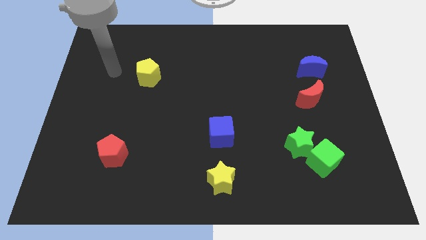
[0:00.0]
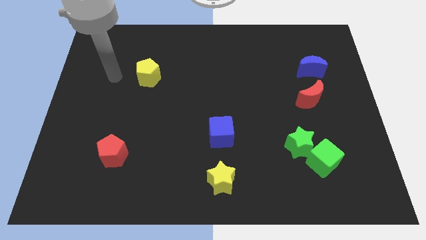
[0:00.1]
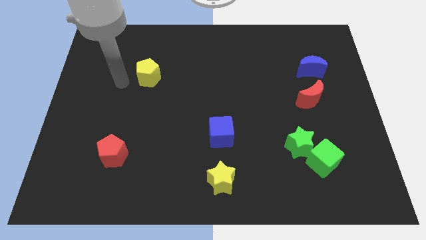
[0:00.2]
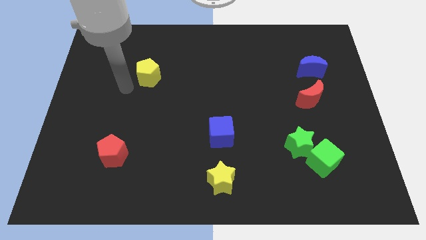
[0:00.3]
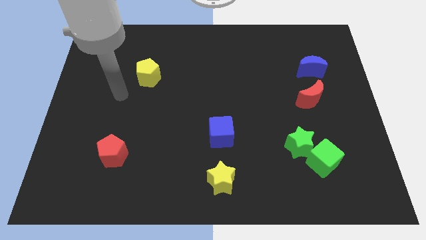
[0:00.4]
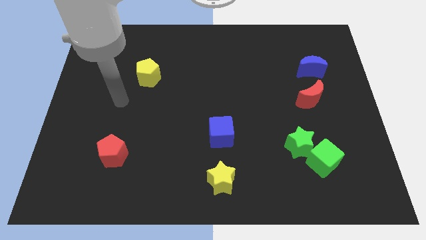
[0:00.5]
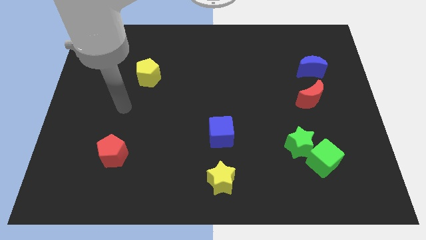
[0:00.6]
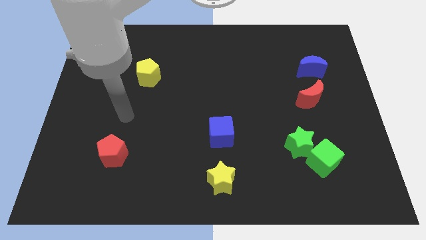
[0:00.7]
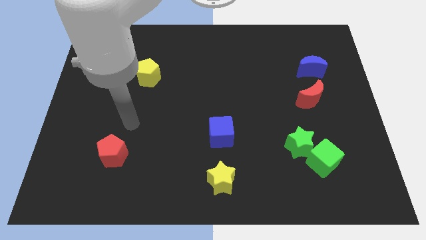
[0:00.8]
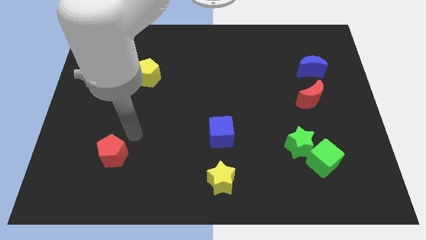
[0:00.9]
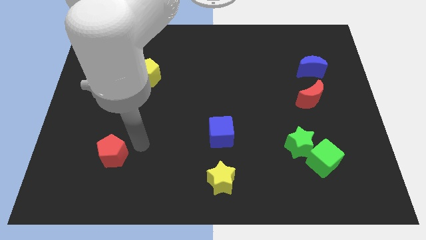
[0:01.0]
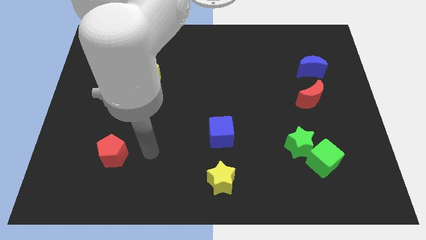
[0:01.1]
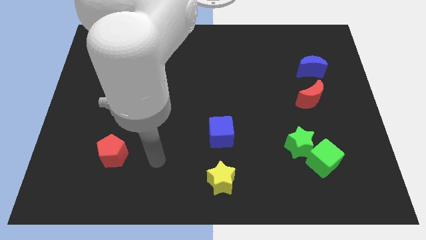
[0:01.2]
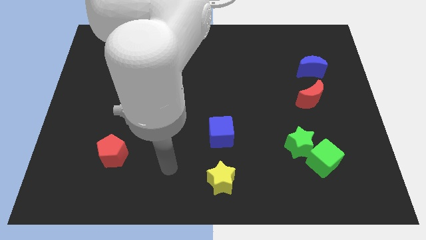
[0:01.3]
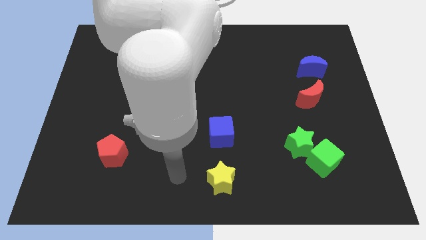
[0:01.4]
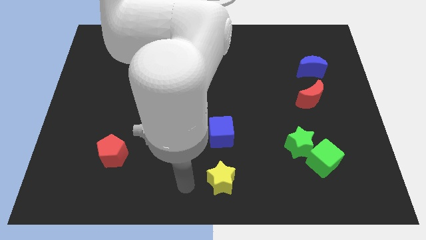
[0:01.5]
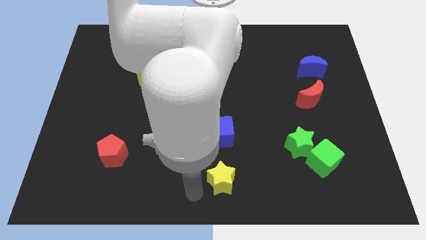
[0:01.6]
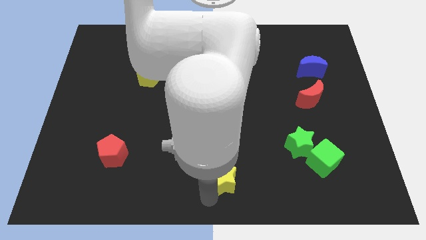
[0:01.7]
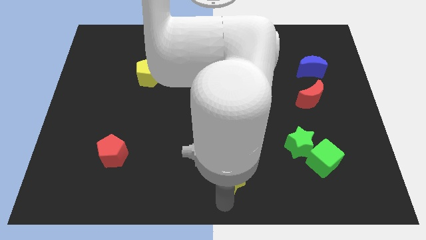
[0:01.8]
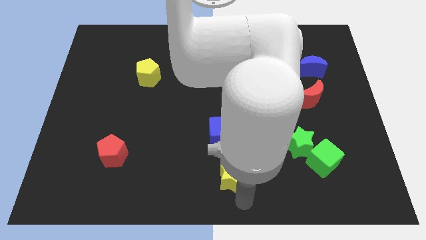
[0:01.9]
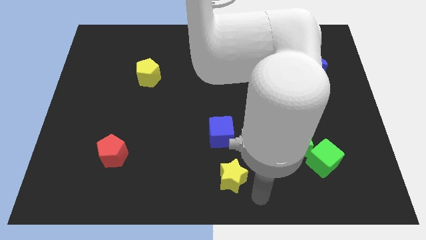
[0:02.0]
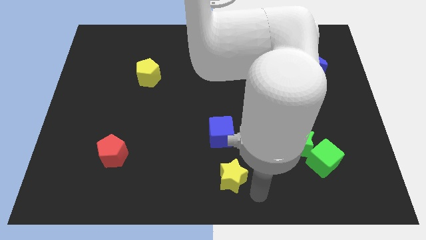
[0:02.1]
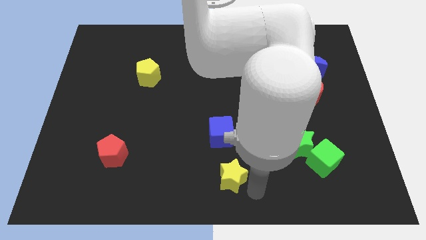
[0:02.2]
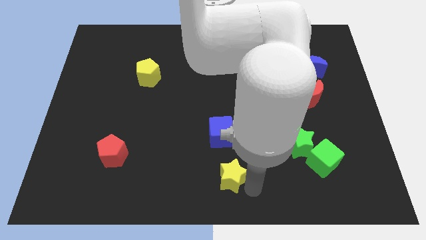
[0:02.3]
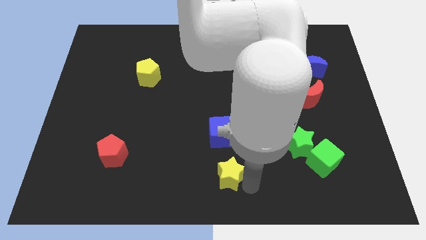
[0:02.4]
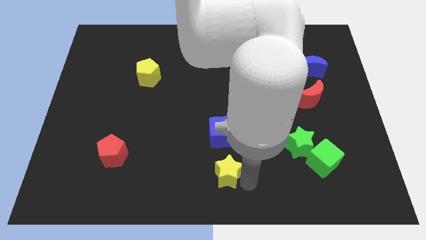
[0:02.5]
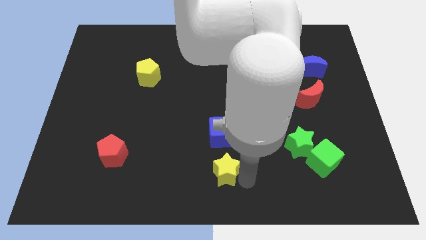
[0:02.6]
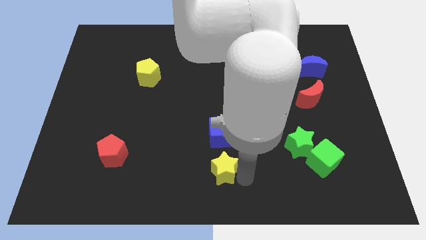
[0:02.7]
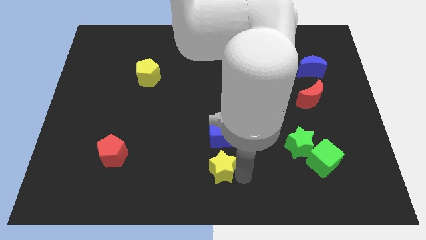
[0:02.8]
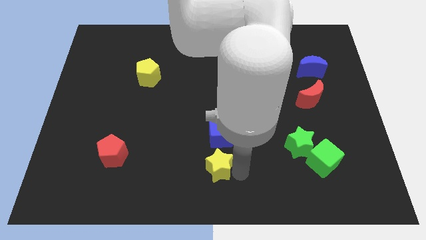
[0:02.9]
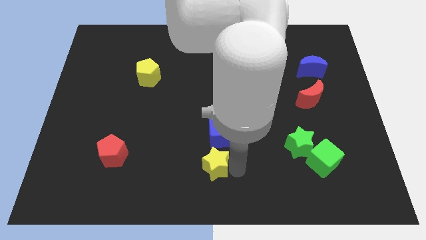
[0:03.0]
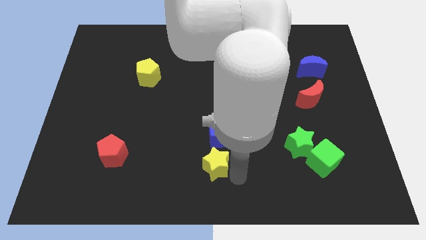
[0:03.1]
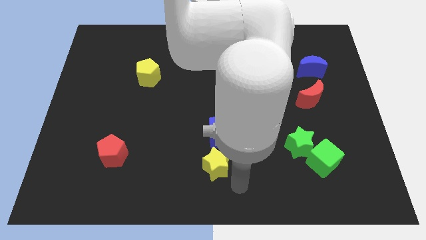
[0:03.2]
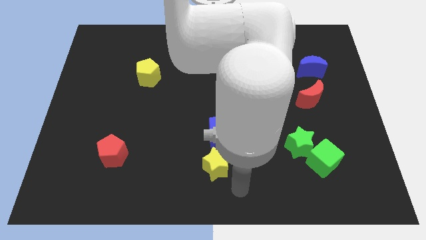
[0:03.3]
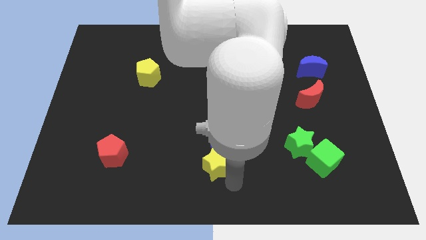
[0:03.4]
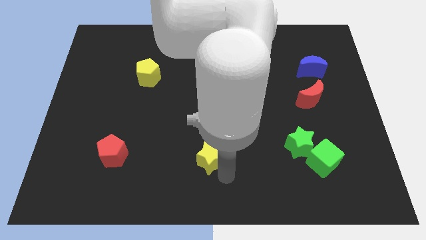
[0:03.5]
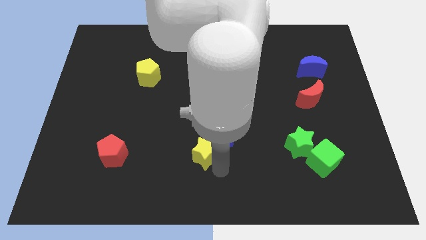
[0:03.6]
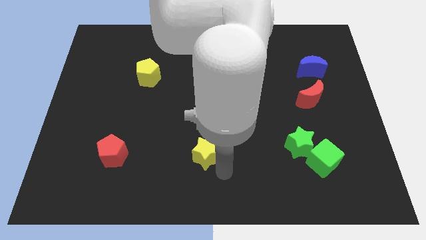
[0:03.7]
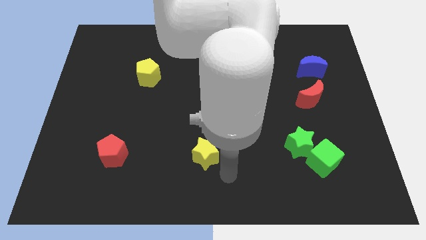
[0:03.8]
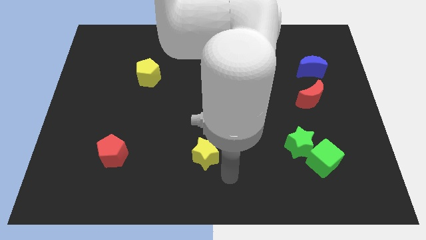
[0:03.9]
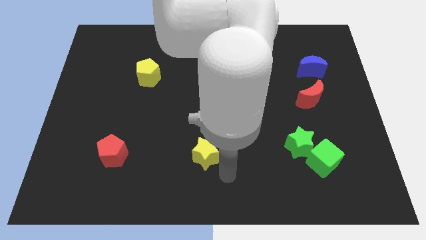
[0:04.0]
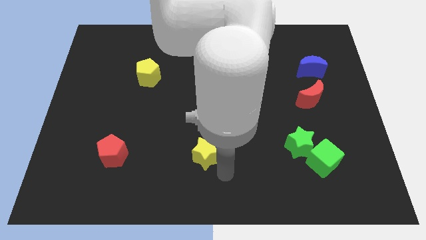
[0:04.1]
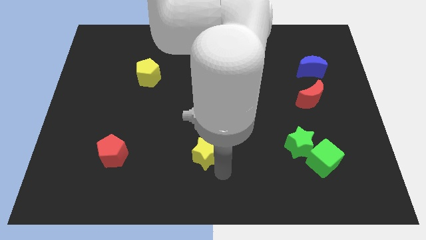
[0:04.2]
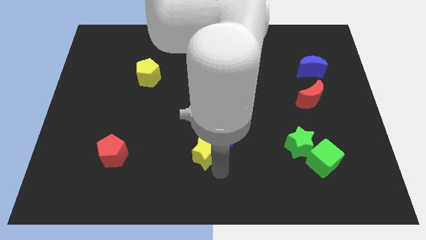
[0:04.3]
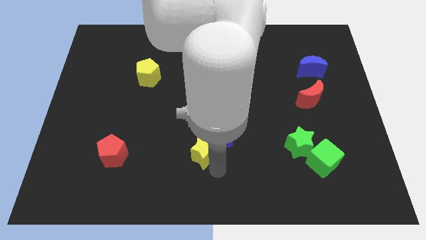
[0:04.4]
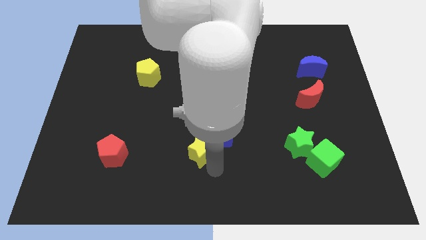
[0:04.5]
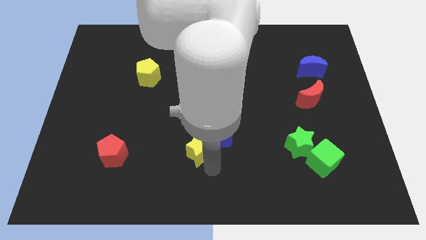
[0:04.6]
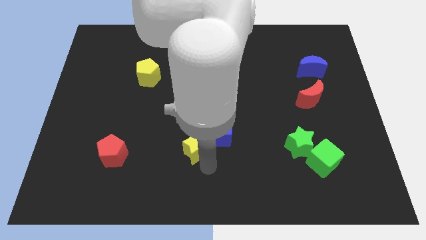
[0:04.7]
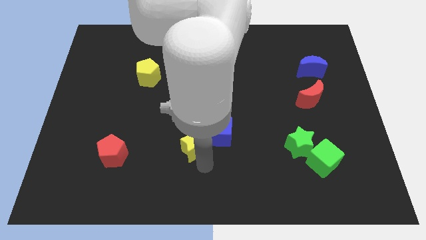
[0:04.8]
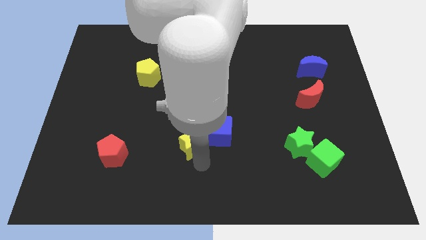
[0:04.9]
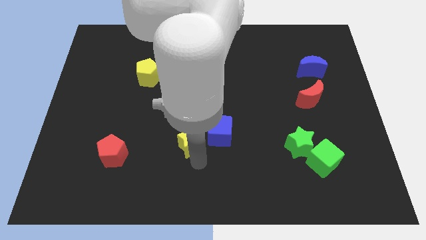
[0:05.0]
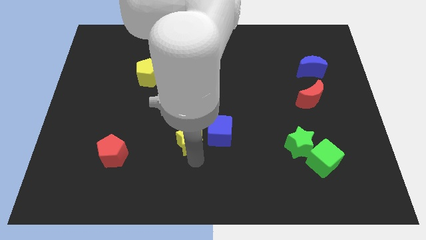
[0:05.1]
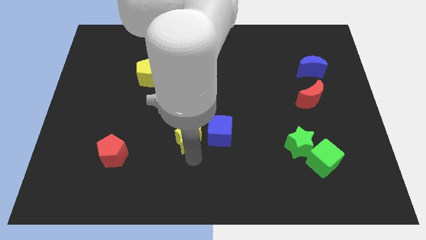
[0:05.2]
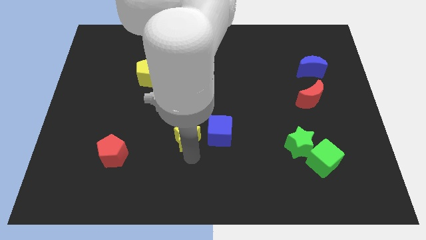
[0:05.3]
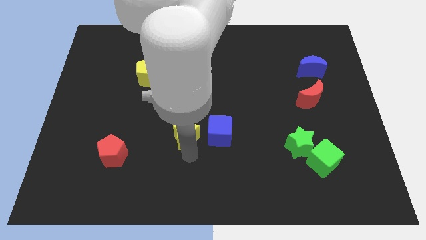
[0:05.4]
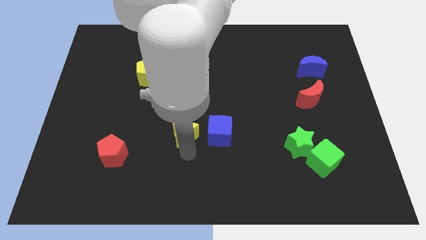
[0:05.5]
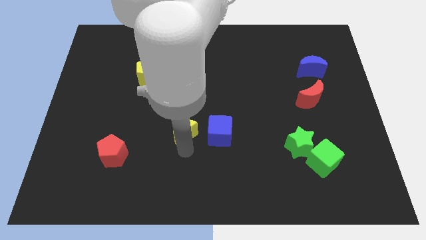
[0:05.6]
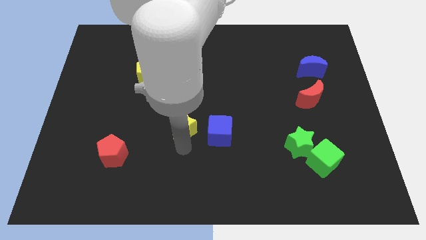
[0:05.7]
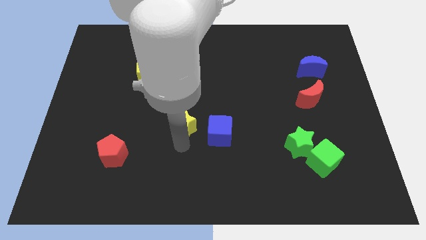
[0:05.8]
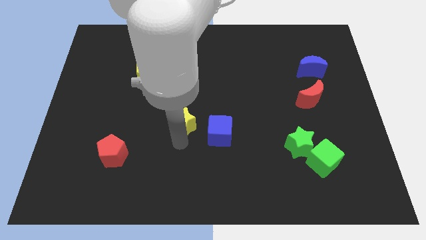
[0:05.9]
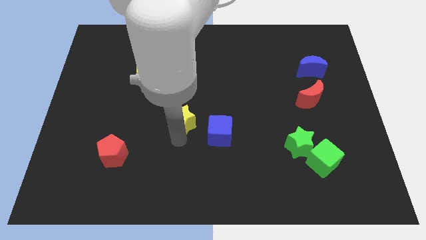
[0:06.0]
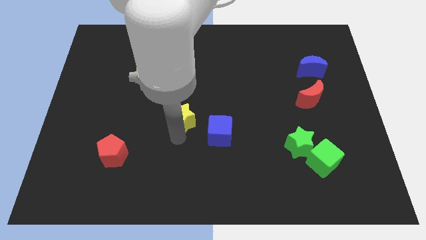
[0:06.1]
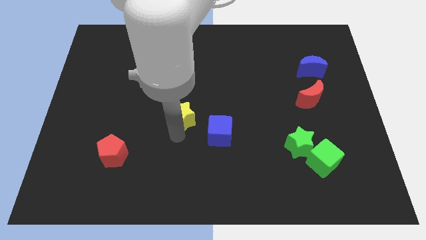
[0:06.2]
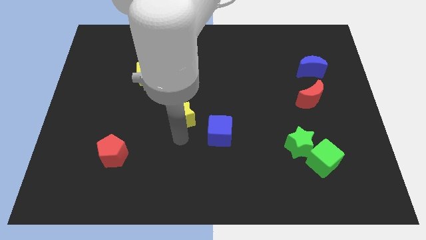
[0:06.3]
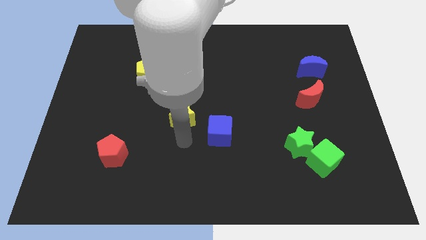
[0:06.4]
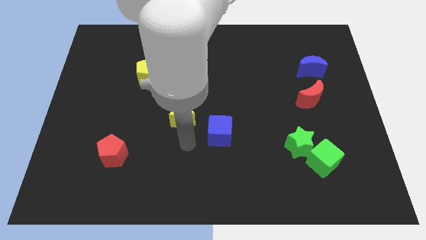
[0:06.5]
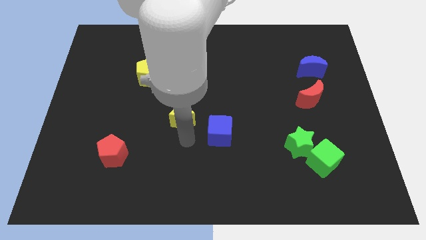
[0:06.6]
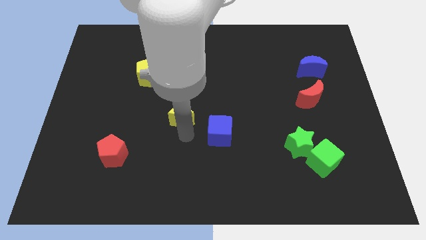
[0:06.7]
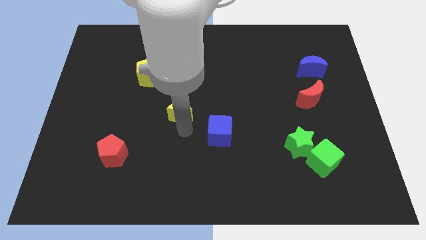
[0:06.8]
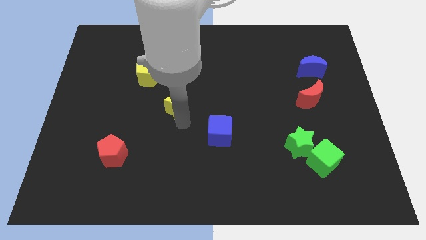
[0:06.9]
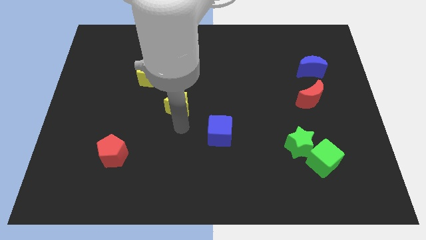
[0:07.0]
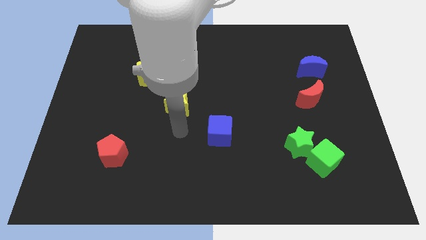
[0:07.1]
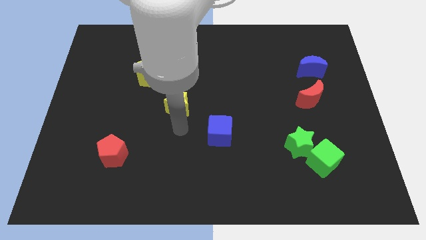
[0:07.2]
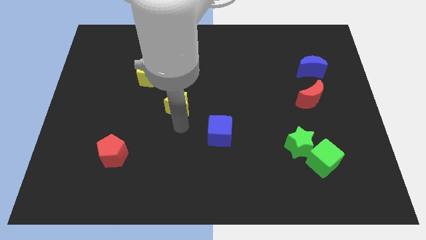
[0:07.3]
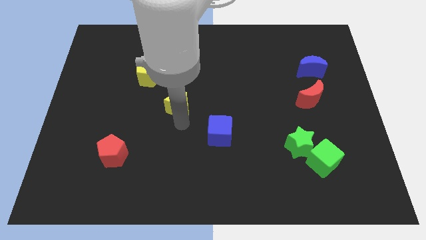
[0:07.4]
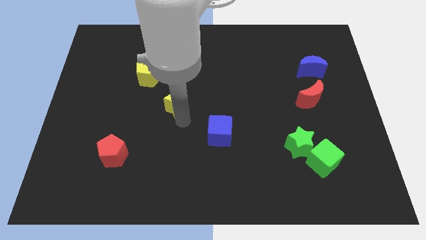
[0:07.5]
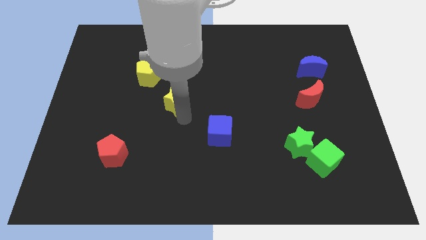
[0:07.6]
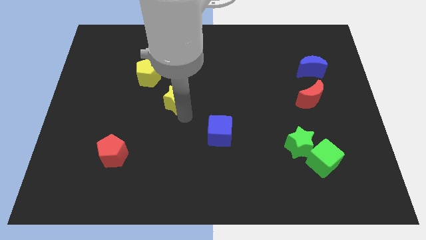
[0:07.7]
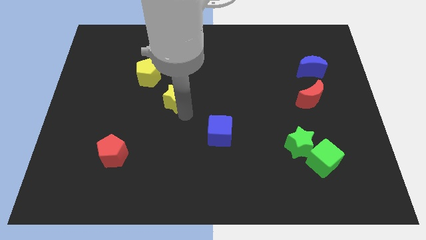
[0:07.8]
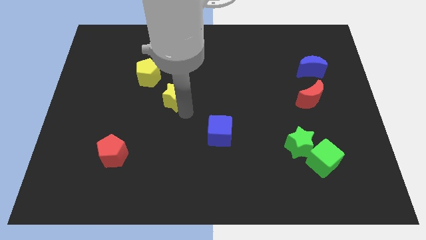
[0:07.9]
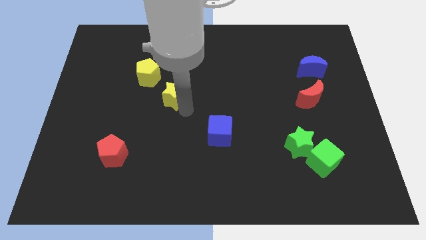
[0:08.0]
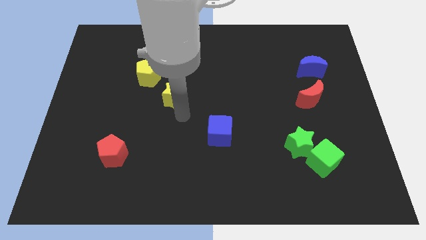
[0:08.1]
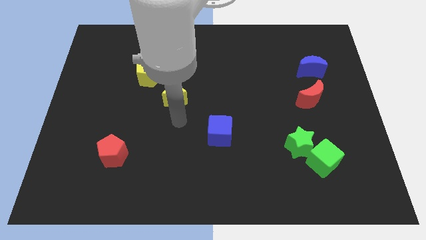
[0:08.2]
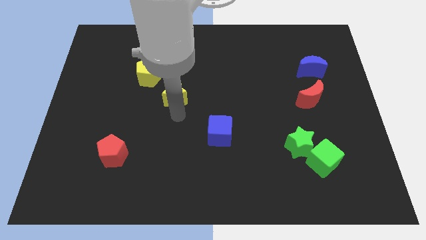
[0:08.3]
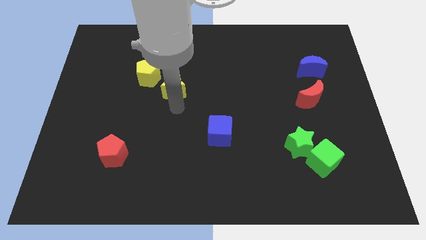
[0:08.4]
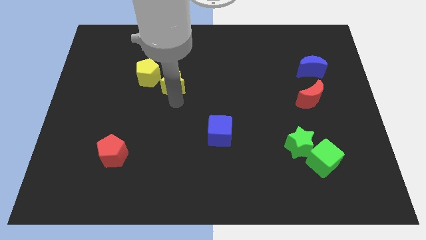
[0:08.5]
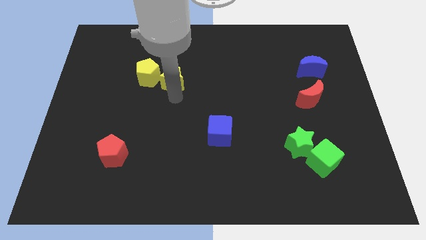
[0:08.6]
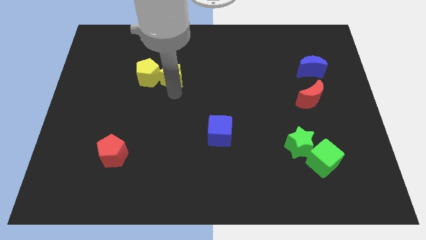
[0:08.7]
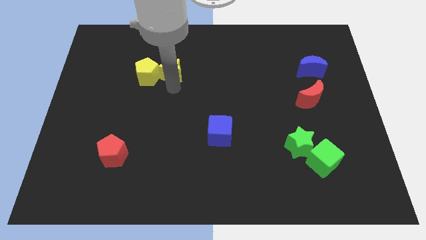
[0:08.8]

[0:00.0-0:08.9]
put the yellow star to the top right side of the yellow pentagon
